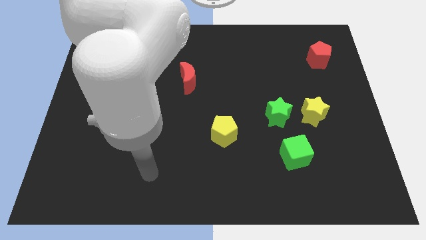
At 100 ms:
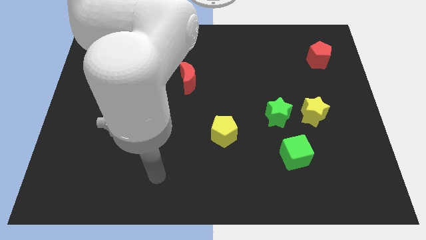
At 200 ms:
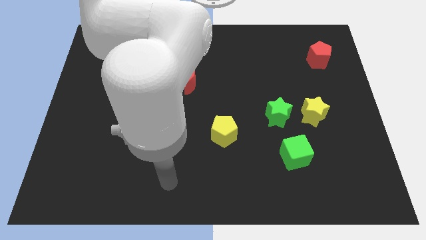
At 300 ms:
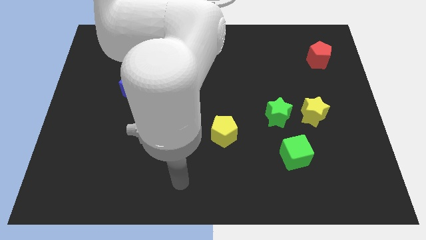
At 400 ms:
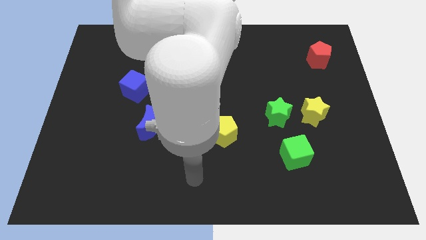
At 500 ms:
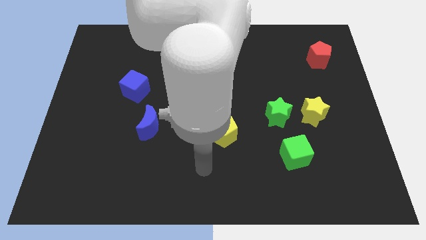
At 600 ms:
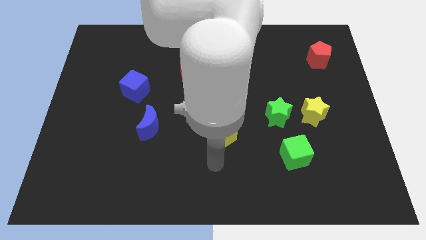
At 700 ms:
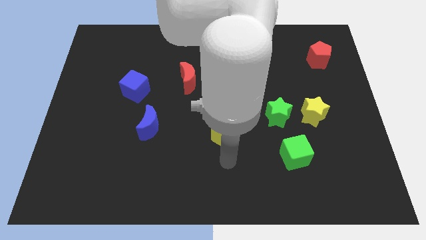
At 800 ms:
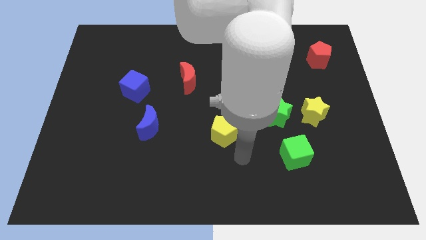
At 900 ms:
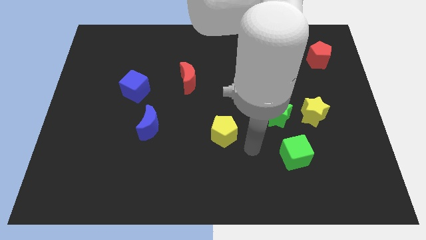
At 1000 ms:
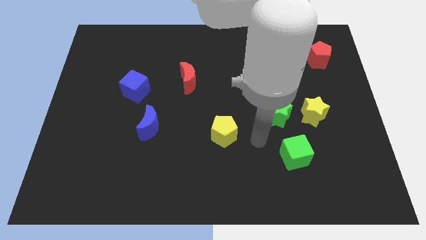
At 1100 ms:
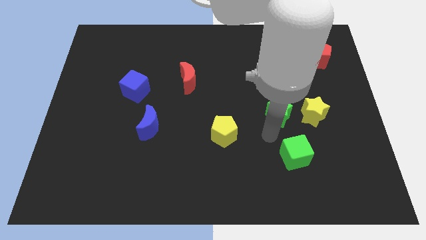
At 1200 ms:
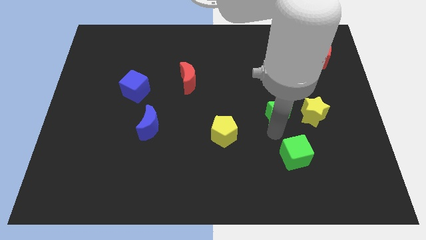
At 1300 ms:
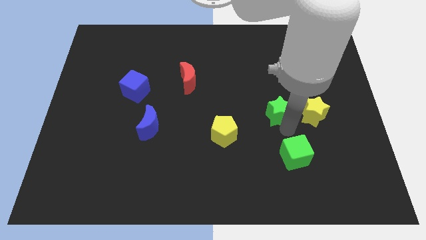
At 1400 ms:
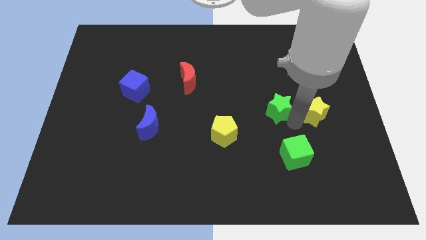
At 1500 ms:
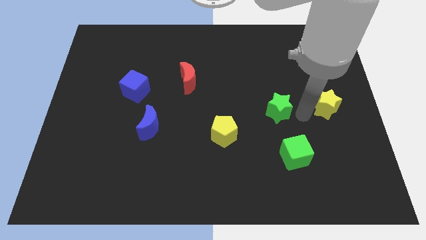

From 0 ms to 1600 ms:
move the green star away from the yellow star

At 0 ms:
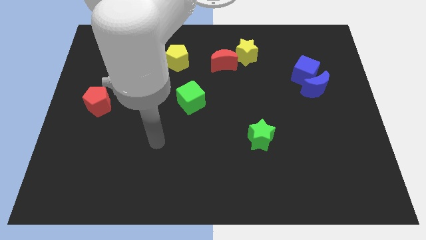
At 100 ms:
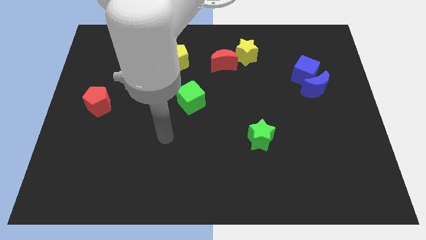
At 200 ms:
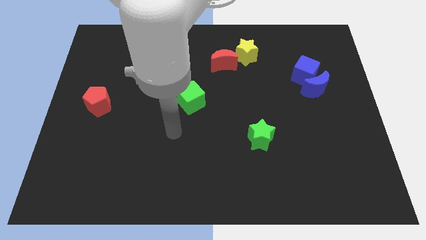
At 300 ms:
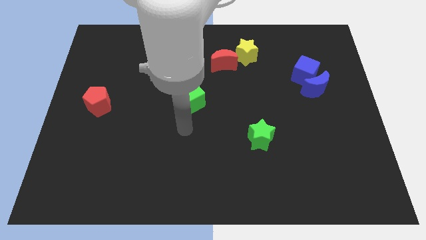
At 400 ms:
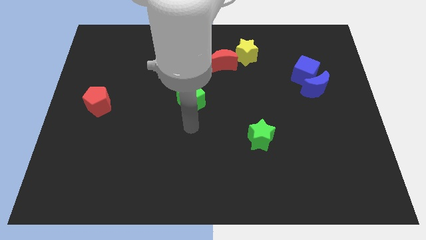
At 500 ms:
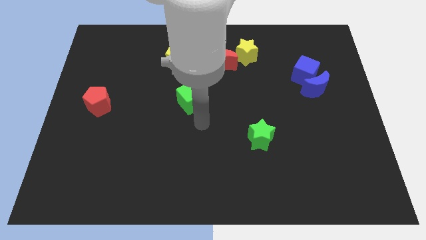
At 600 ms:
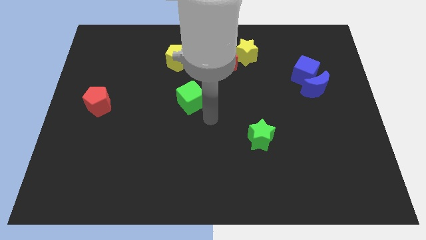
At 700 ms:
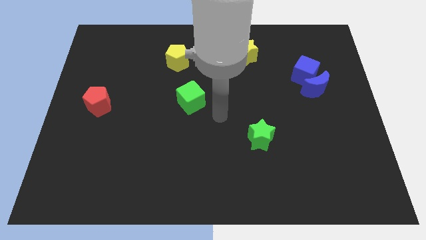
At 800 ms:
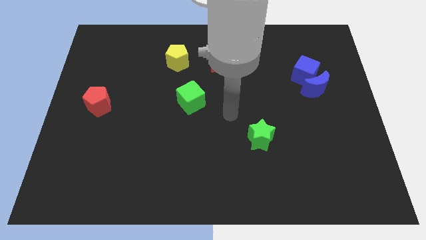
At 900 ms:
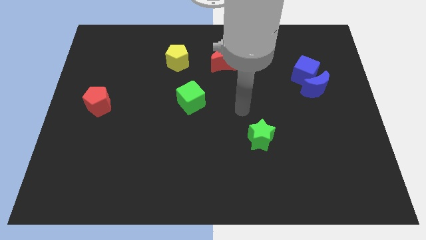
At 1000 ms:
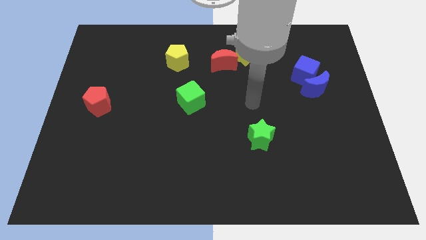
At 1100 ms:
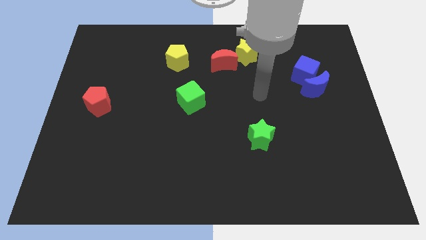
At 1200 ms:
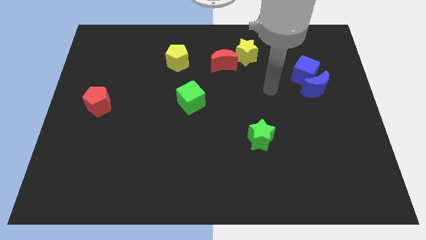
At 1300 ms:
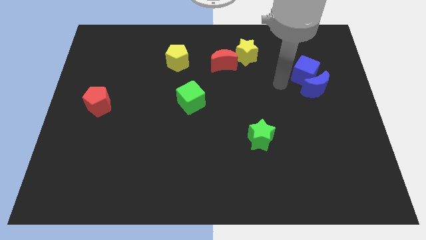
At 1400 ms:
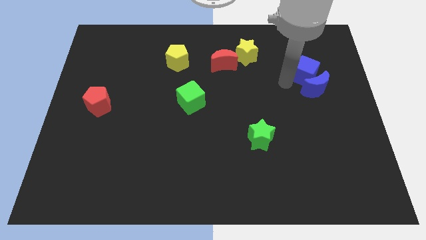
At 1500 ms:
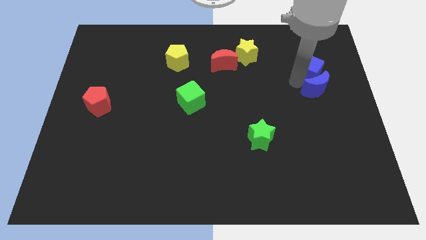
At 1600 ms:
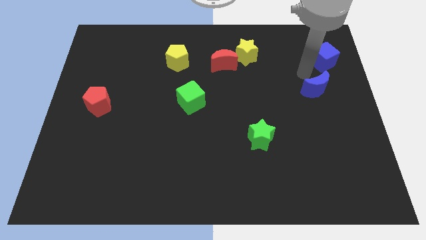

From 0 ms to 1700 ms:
move the blue moon away from the blue cube

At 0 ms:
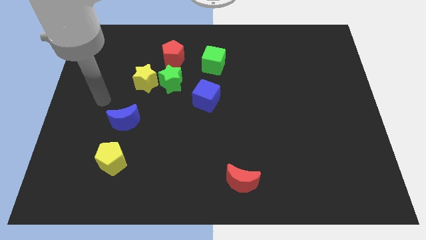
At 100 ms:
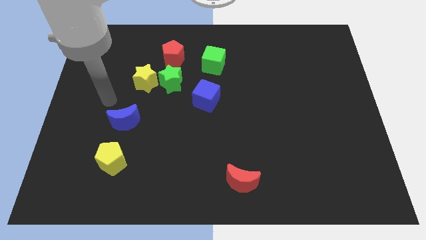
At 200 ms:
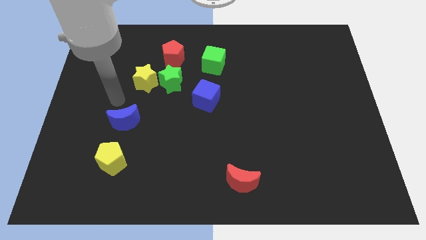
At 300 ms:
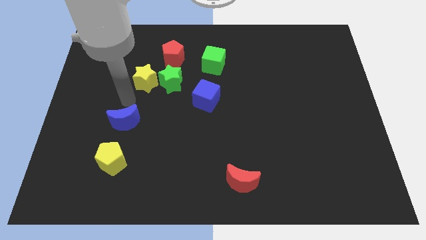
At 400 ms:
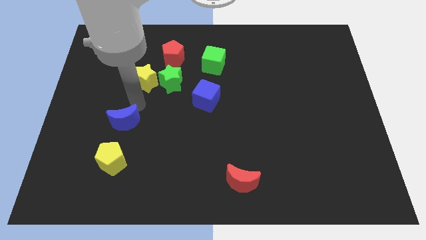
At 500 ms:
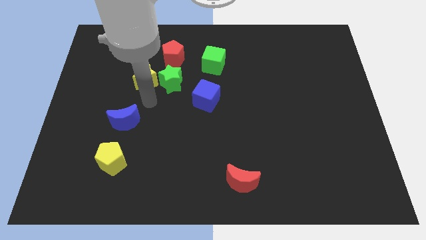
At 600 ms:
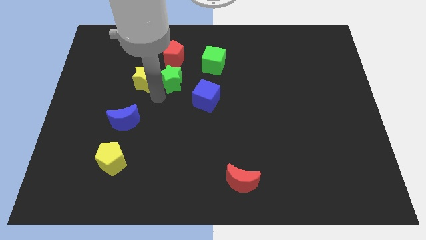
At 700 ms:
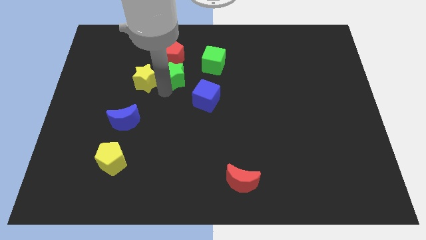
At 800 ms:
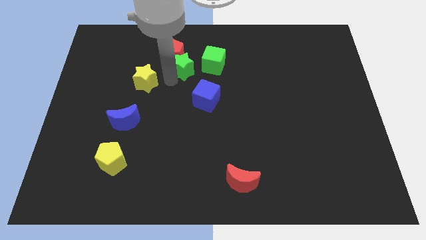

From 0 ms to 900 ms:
move the yellow star away from the green star

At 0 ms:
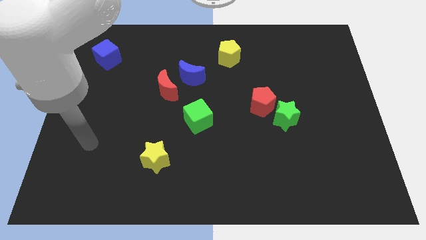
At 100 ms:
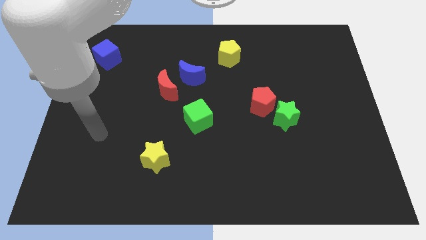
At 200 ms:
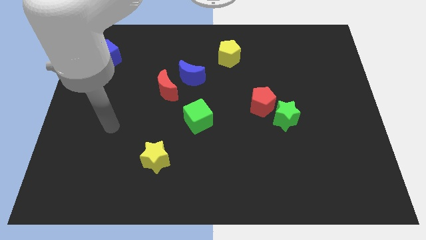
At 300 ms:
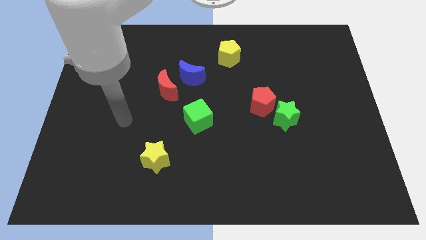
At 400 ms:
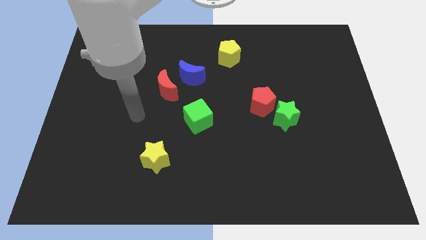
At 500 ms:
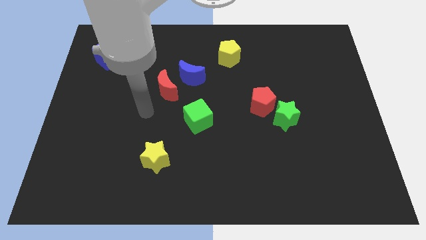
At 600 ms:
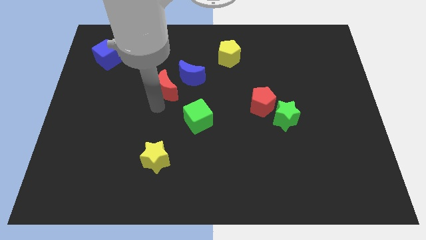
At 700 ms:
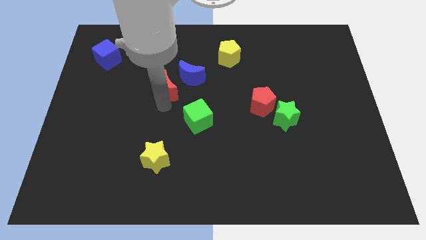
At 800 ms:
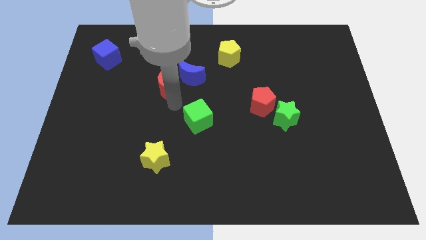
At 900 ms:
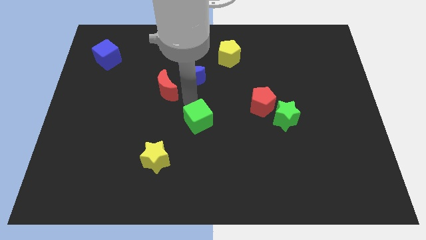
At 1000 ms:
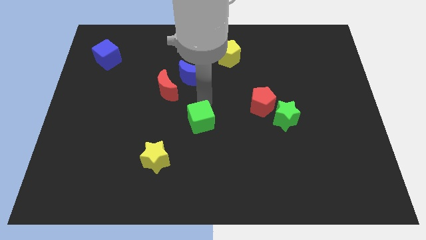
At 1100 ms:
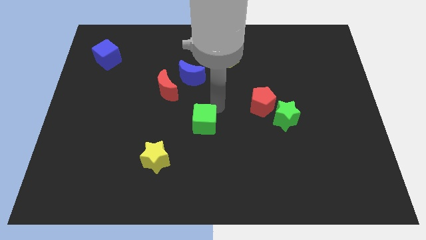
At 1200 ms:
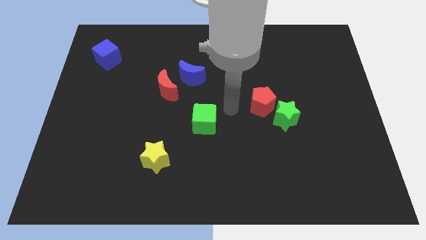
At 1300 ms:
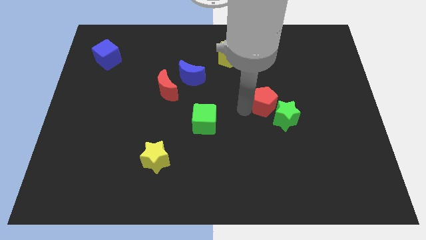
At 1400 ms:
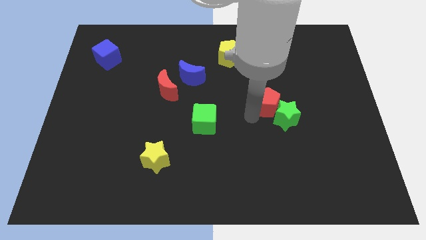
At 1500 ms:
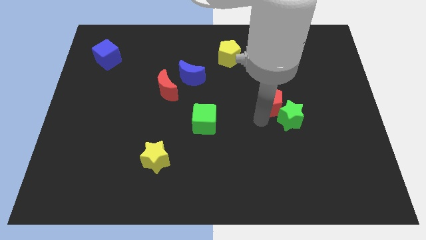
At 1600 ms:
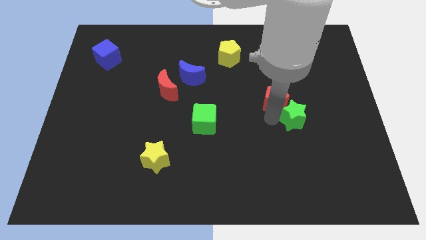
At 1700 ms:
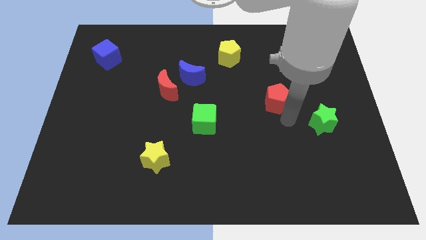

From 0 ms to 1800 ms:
separate the red pentagon from the green star

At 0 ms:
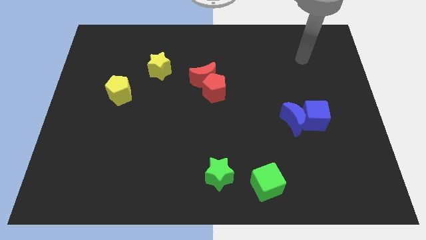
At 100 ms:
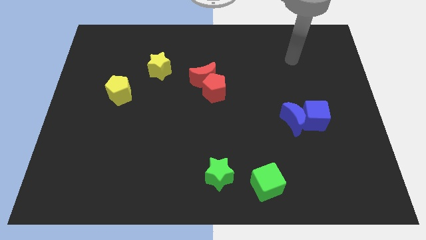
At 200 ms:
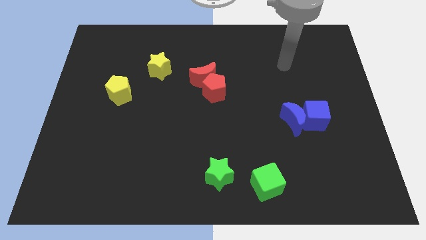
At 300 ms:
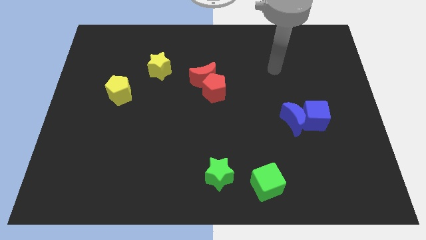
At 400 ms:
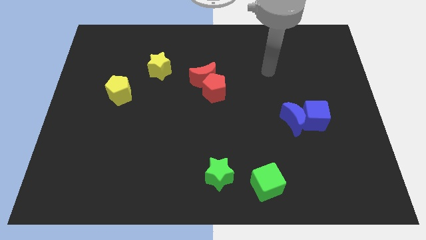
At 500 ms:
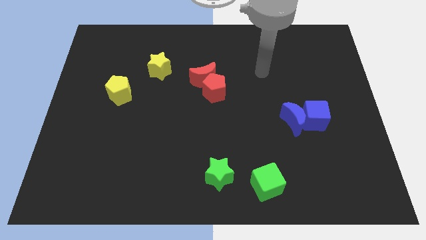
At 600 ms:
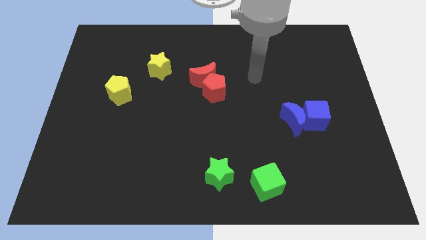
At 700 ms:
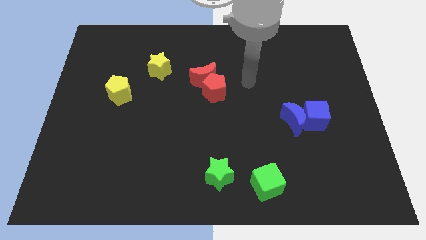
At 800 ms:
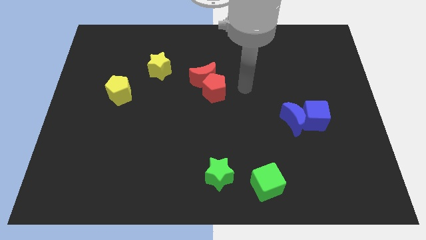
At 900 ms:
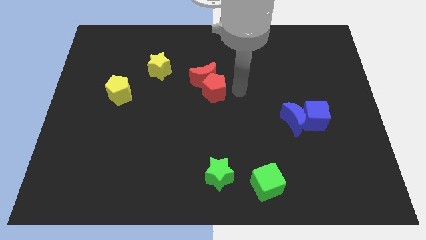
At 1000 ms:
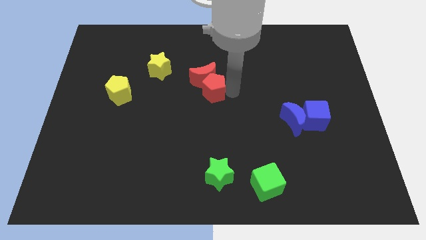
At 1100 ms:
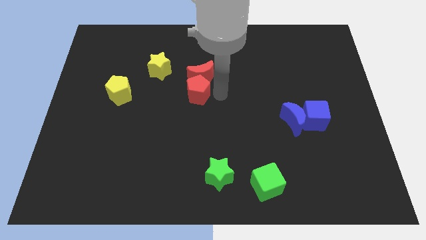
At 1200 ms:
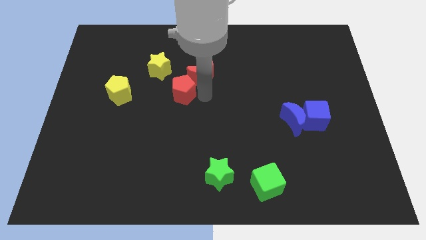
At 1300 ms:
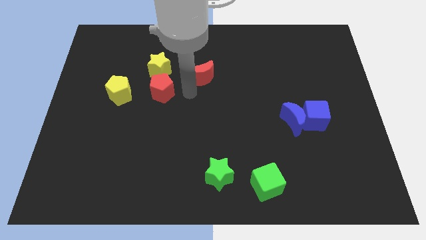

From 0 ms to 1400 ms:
pull the red moon apart from the red pentagon

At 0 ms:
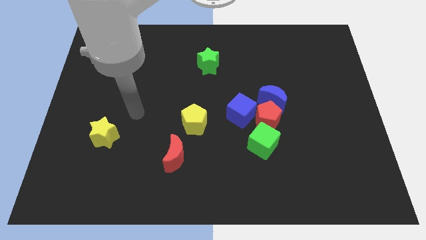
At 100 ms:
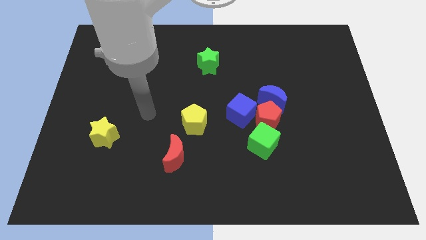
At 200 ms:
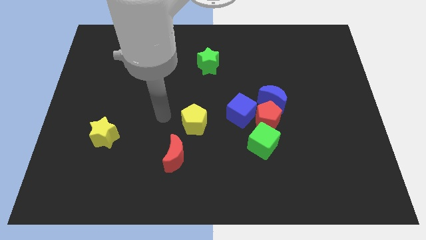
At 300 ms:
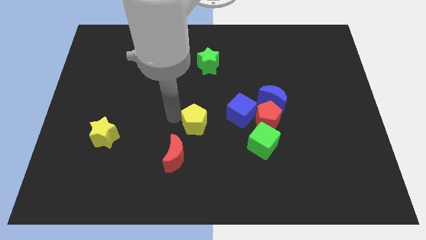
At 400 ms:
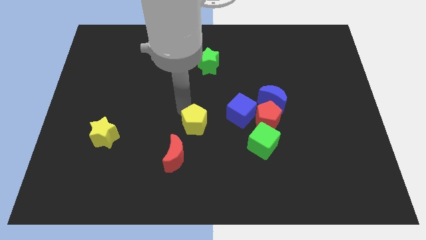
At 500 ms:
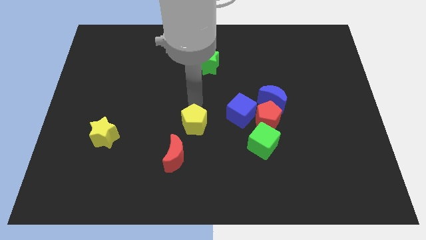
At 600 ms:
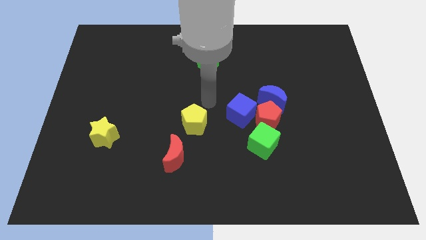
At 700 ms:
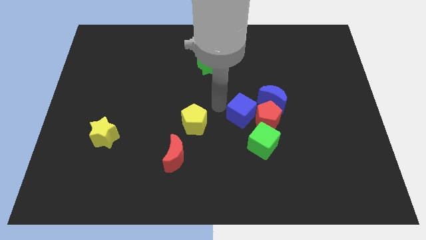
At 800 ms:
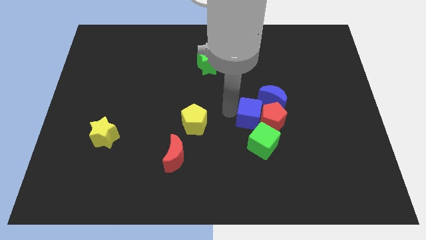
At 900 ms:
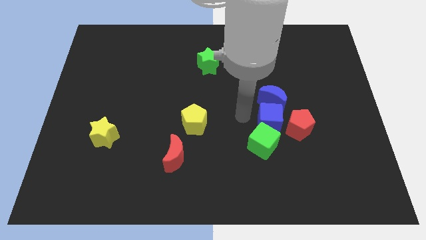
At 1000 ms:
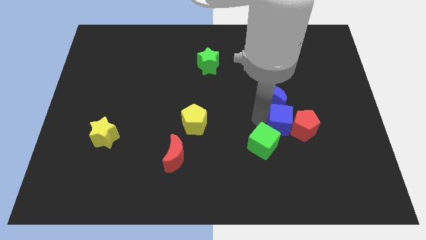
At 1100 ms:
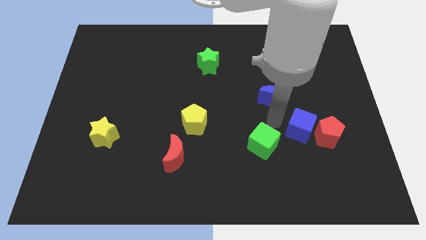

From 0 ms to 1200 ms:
separate the red pentagon from the group

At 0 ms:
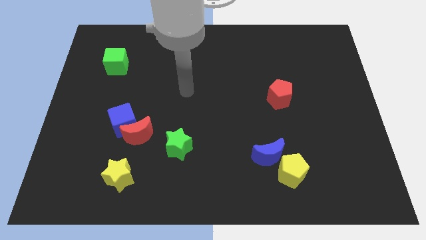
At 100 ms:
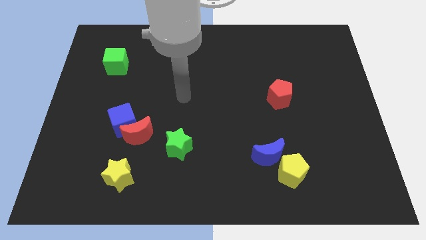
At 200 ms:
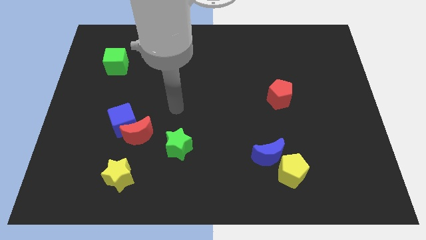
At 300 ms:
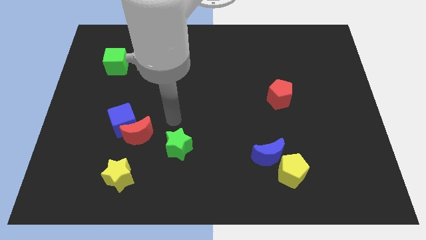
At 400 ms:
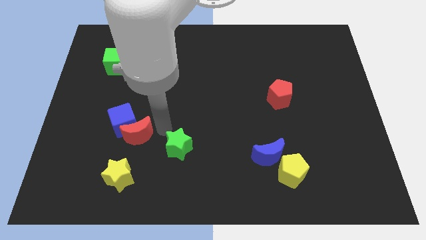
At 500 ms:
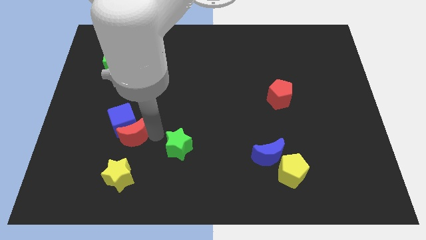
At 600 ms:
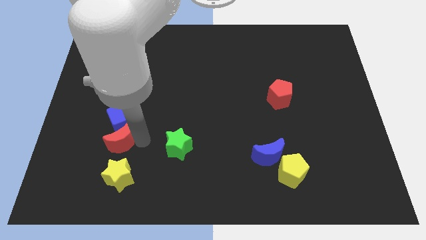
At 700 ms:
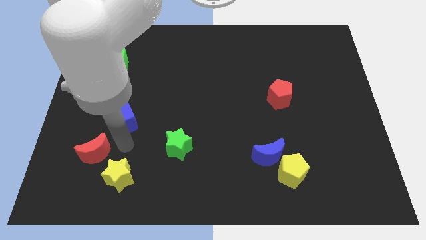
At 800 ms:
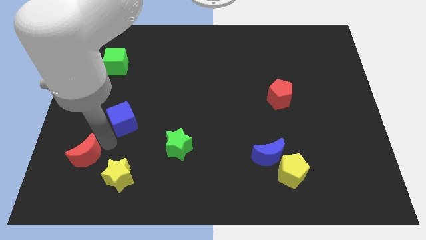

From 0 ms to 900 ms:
separate the blue cube from the red moon
